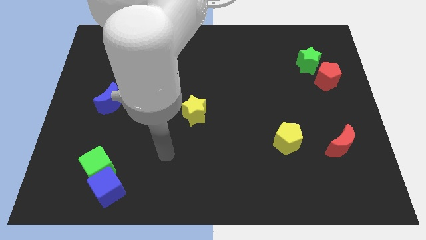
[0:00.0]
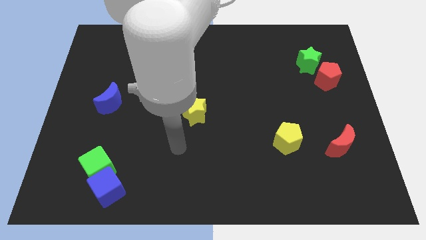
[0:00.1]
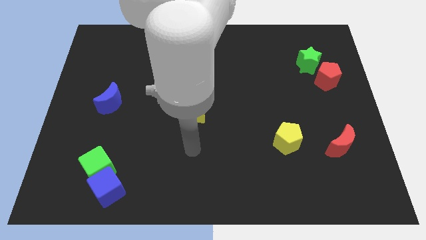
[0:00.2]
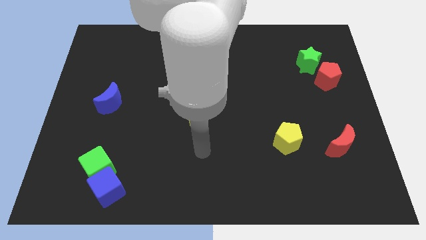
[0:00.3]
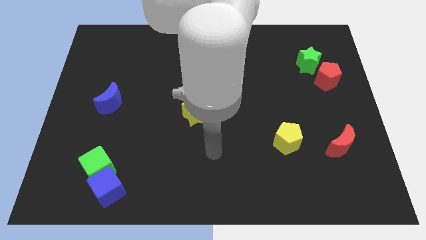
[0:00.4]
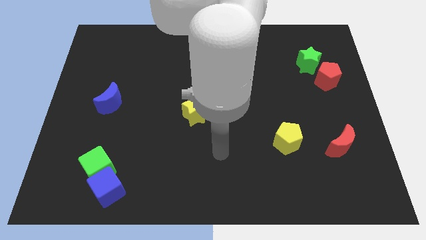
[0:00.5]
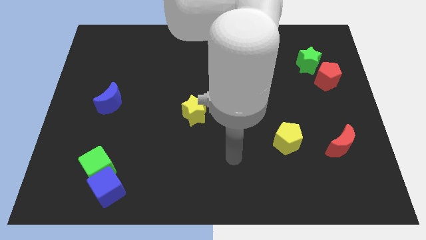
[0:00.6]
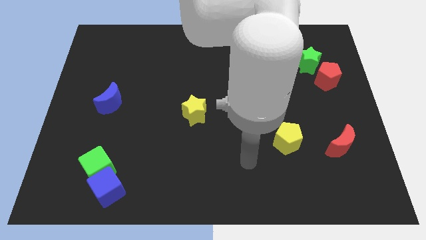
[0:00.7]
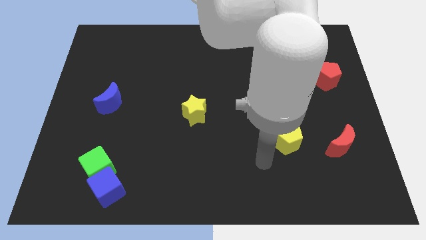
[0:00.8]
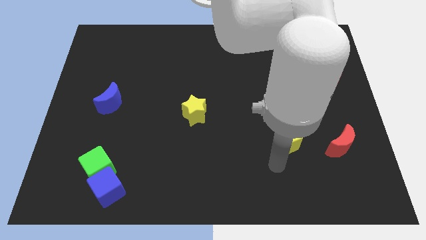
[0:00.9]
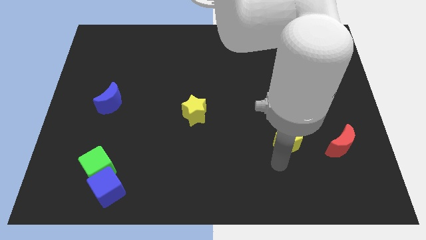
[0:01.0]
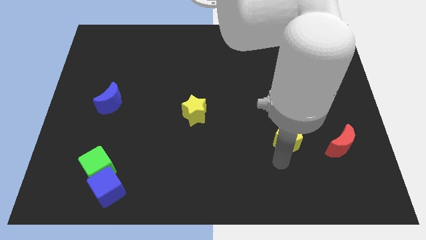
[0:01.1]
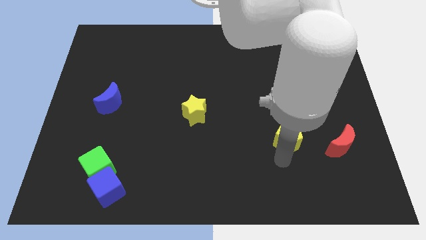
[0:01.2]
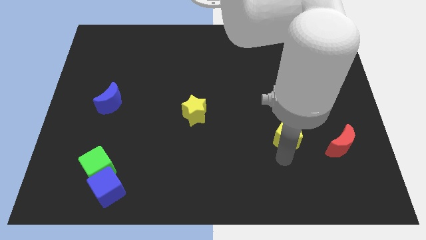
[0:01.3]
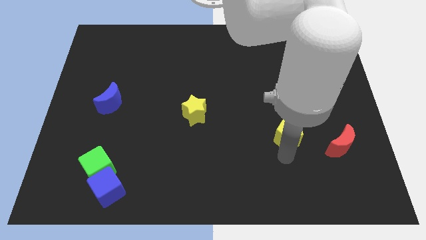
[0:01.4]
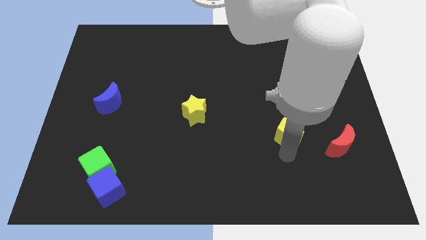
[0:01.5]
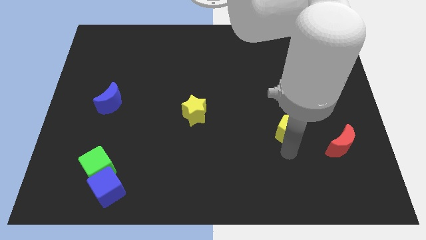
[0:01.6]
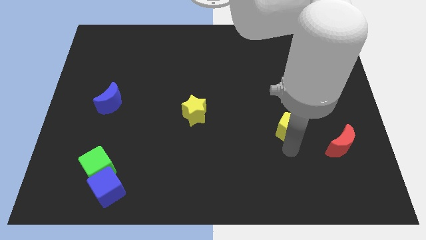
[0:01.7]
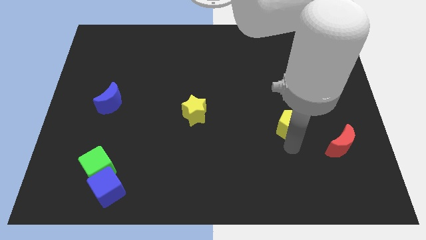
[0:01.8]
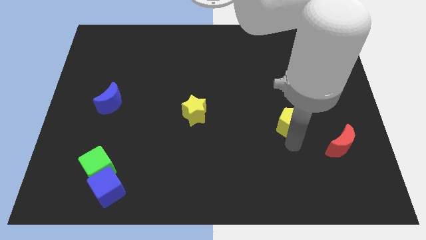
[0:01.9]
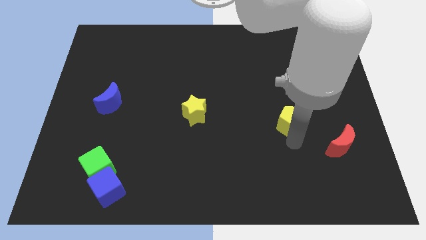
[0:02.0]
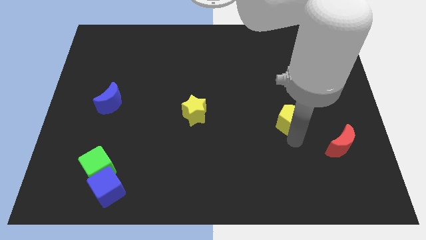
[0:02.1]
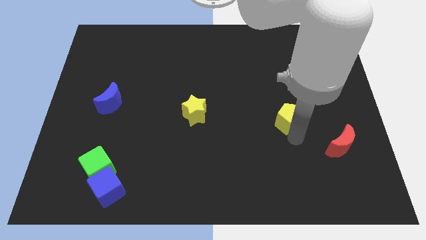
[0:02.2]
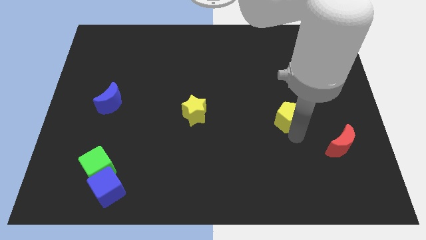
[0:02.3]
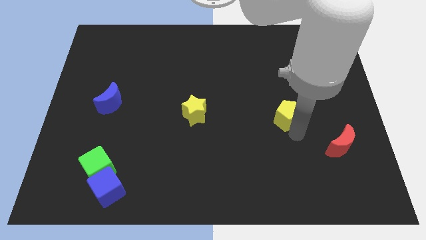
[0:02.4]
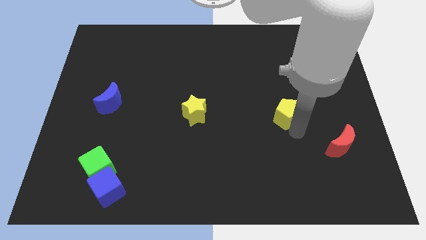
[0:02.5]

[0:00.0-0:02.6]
slightly move the yellow pentagon upwards

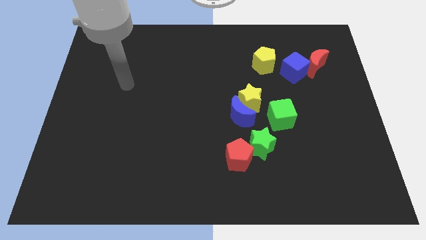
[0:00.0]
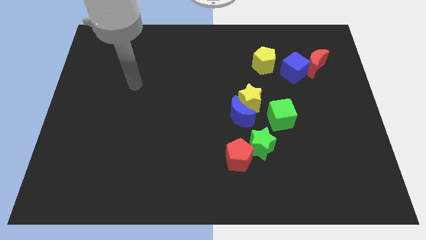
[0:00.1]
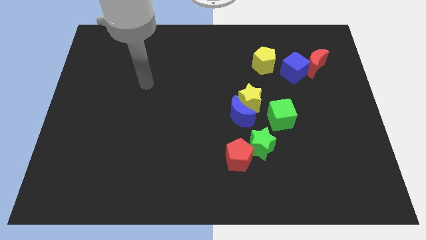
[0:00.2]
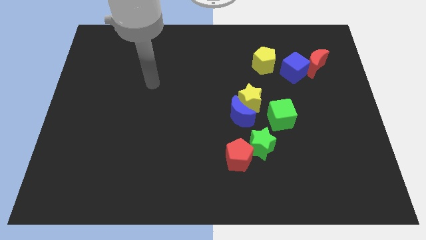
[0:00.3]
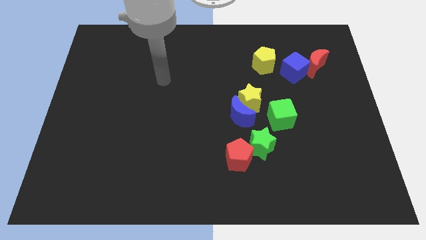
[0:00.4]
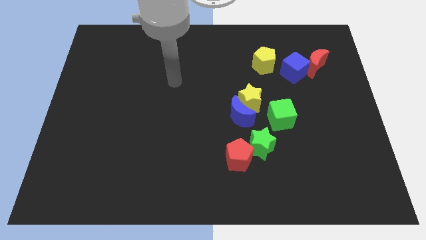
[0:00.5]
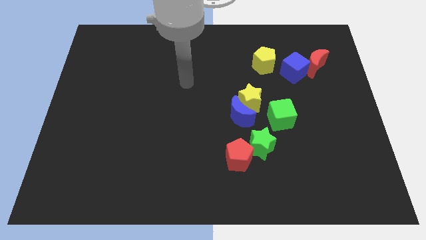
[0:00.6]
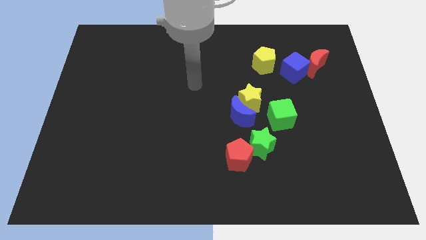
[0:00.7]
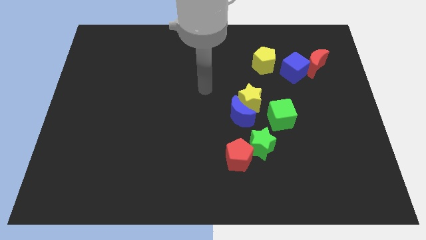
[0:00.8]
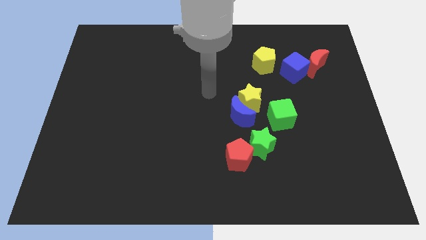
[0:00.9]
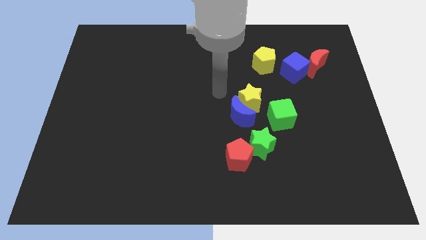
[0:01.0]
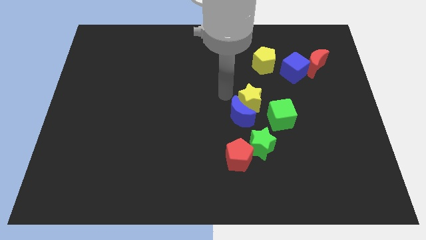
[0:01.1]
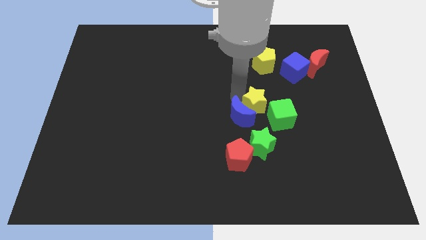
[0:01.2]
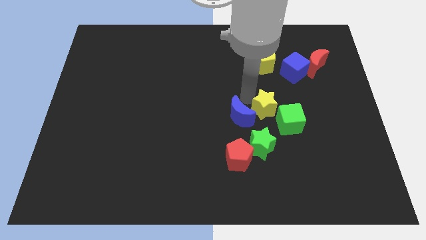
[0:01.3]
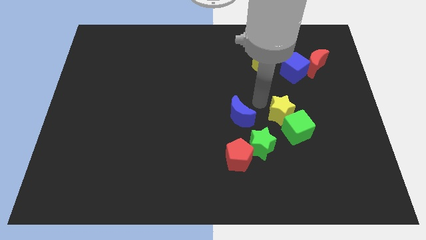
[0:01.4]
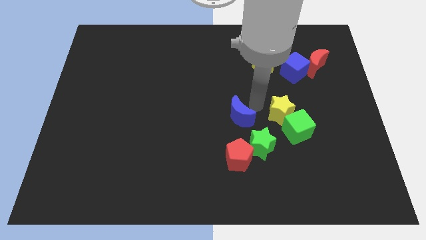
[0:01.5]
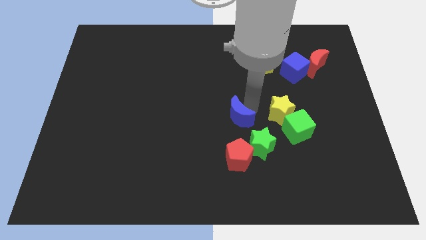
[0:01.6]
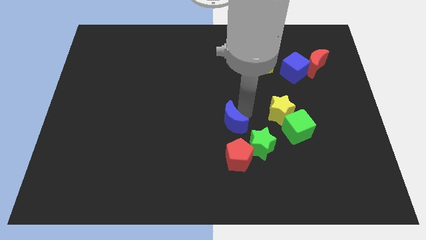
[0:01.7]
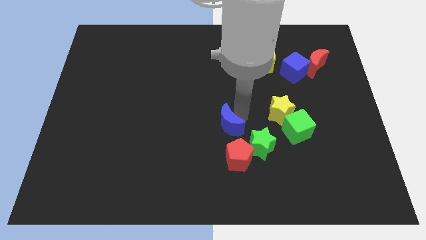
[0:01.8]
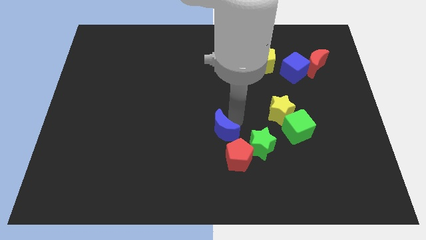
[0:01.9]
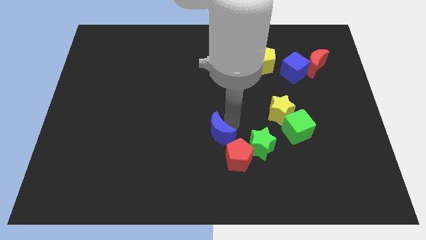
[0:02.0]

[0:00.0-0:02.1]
slightly move the blue moon diagonally down and to the left

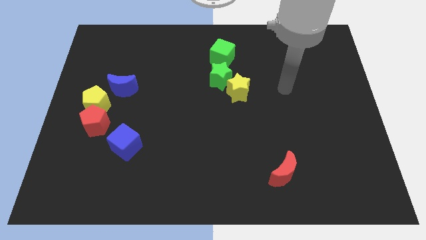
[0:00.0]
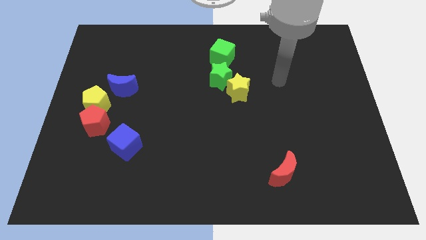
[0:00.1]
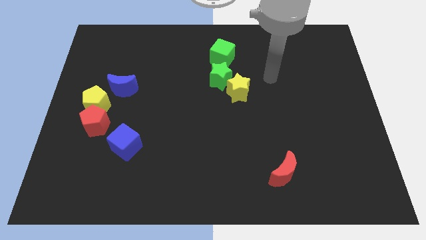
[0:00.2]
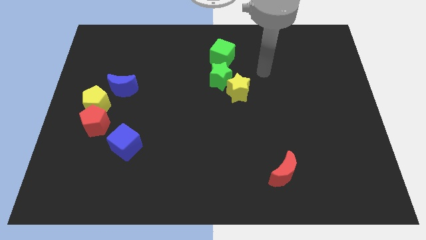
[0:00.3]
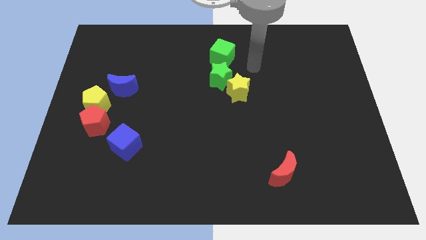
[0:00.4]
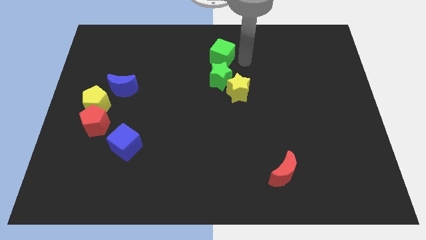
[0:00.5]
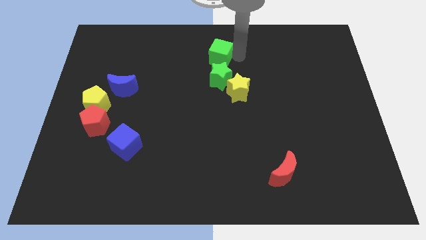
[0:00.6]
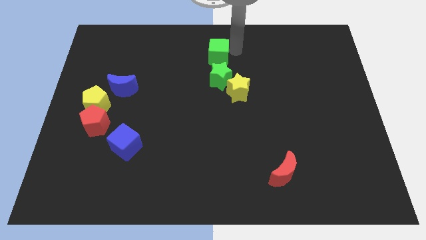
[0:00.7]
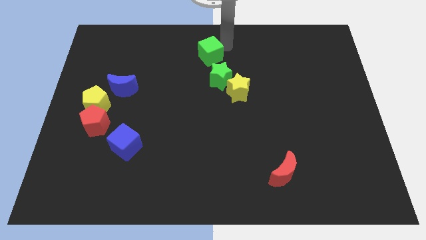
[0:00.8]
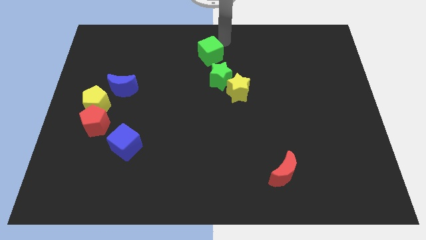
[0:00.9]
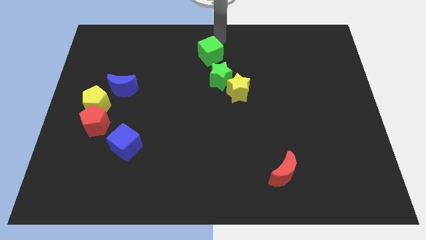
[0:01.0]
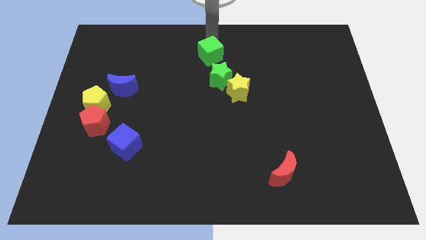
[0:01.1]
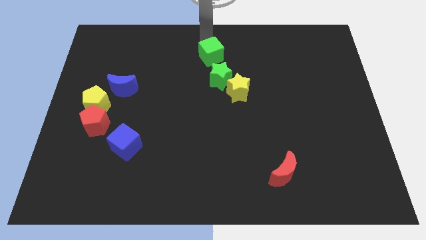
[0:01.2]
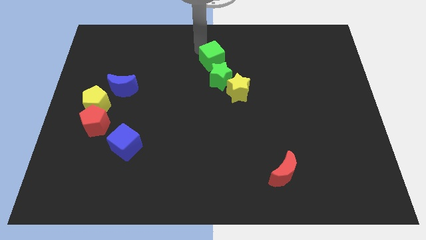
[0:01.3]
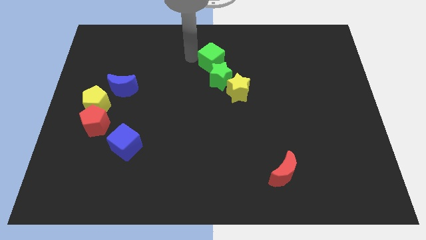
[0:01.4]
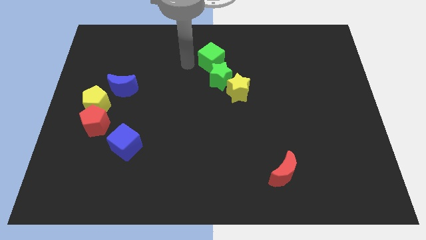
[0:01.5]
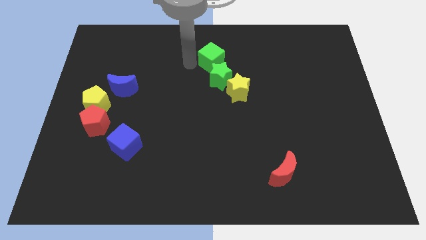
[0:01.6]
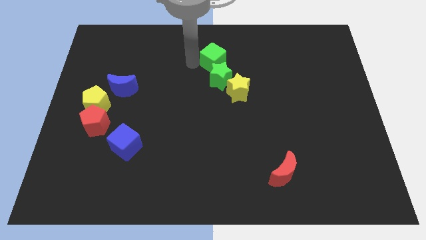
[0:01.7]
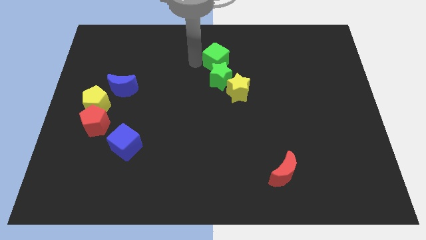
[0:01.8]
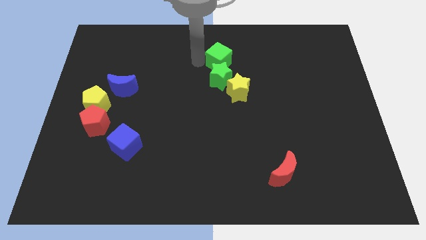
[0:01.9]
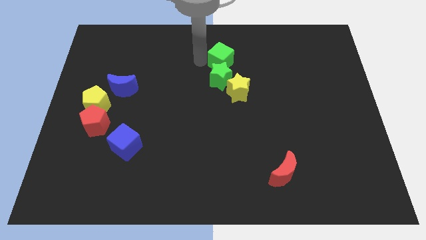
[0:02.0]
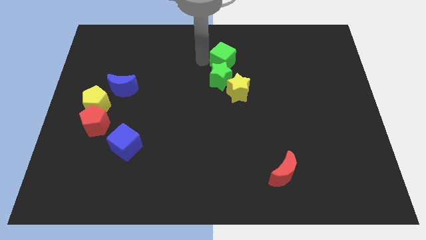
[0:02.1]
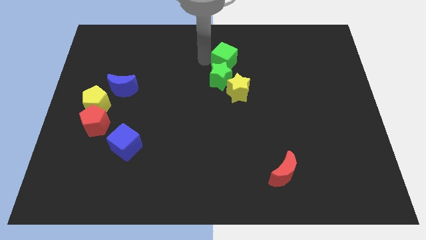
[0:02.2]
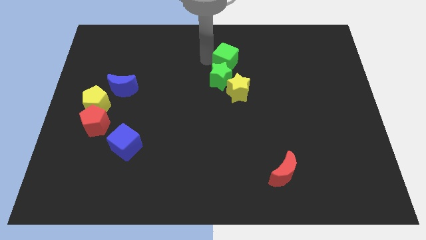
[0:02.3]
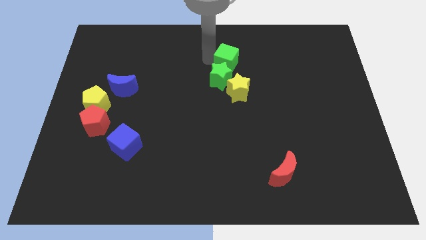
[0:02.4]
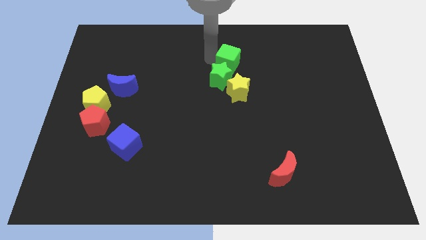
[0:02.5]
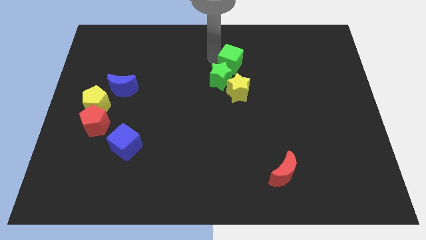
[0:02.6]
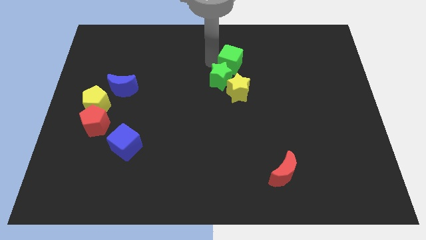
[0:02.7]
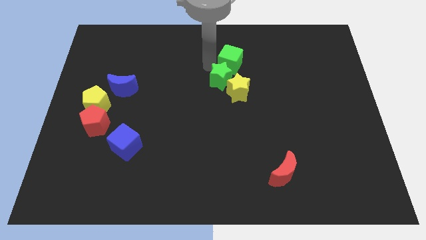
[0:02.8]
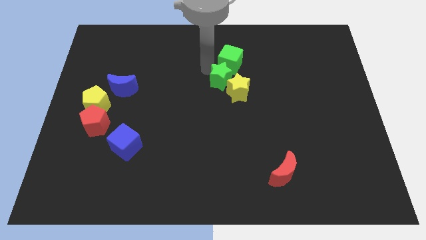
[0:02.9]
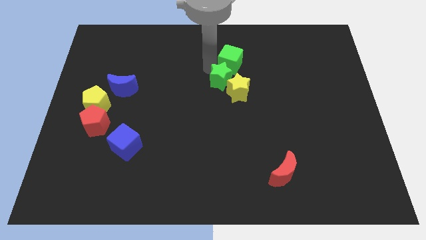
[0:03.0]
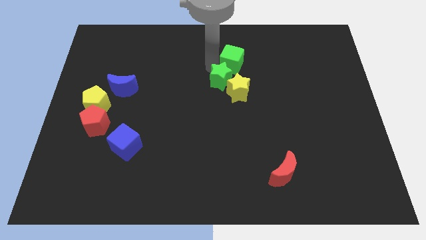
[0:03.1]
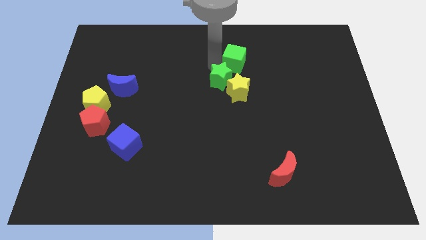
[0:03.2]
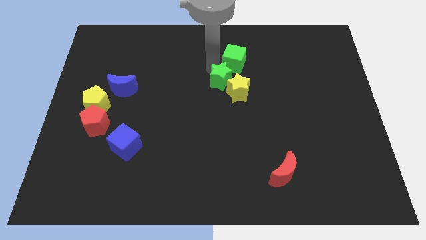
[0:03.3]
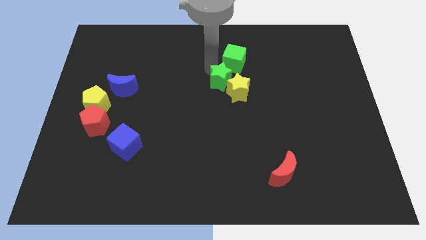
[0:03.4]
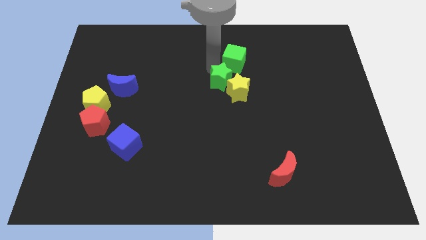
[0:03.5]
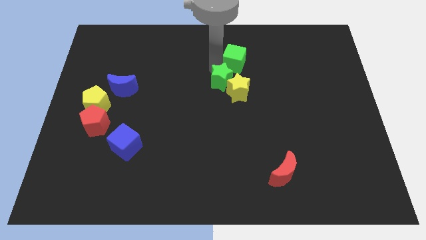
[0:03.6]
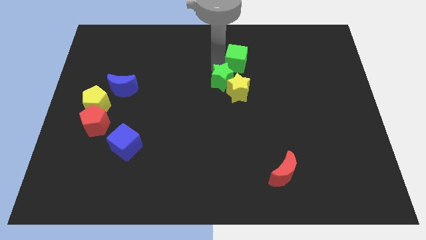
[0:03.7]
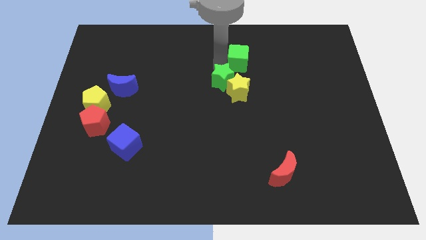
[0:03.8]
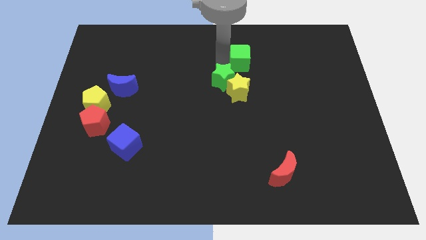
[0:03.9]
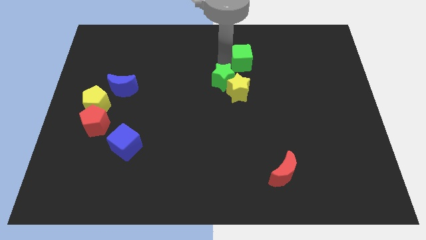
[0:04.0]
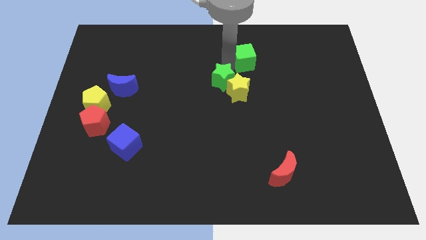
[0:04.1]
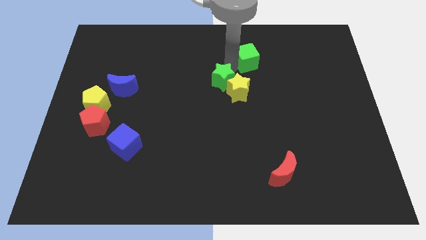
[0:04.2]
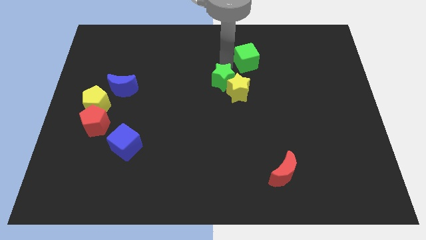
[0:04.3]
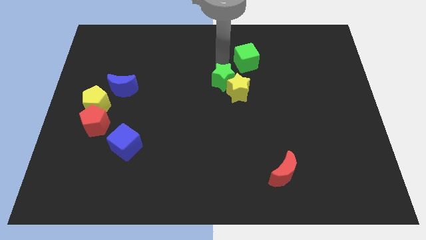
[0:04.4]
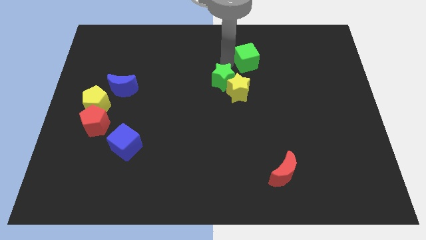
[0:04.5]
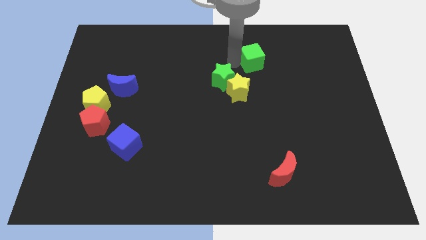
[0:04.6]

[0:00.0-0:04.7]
push the green cube to the right somewhat
